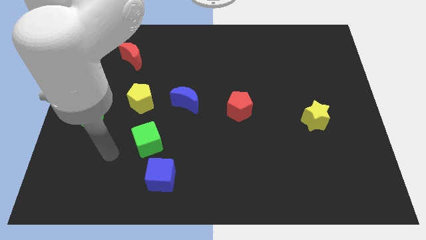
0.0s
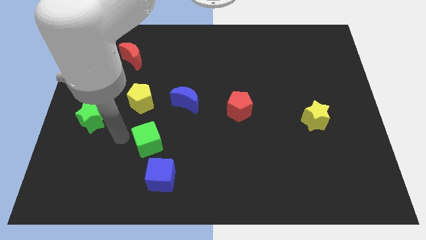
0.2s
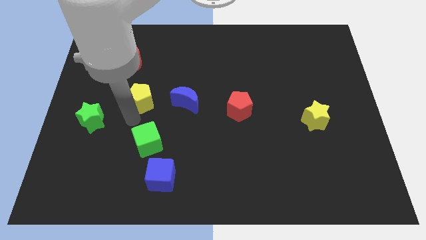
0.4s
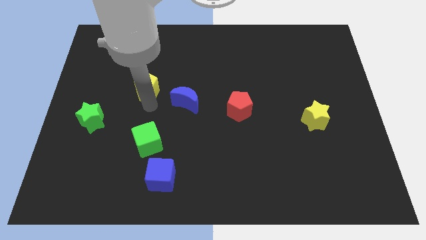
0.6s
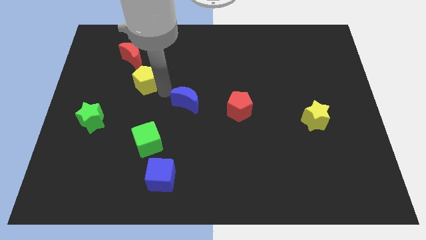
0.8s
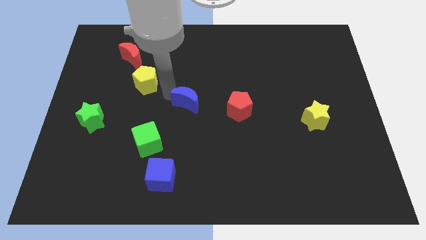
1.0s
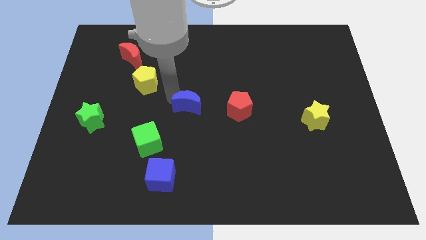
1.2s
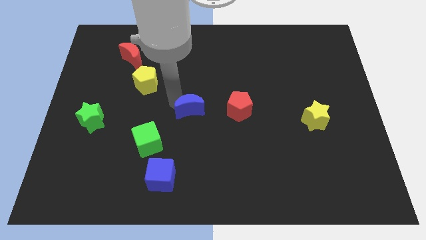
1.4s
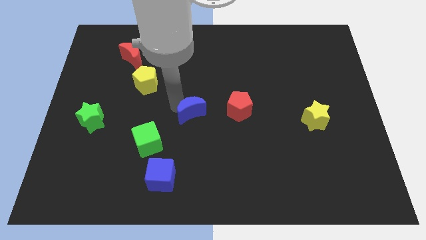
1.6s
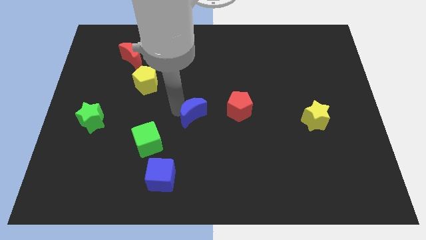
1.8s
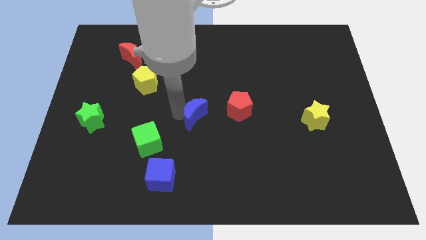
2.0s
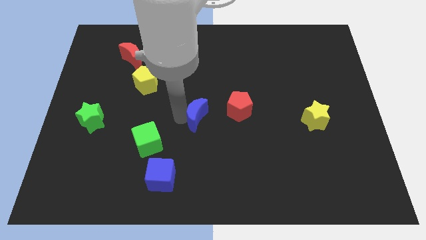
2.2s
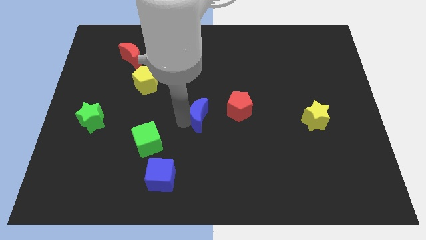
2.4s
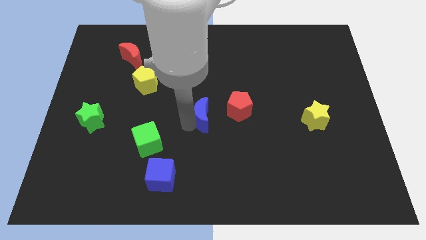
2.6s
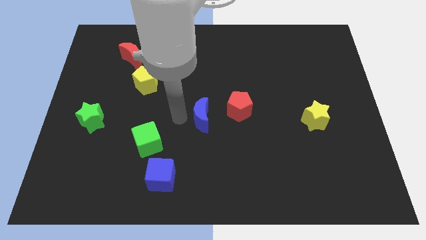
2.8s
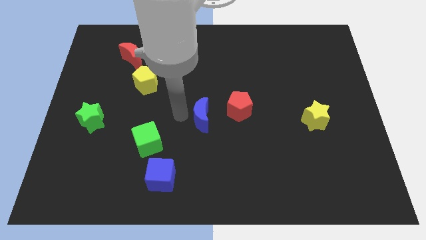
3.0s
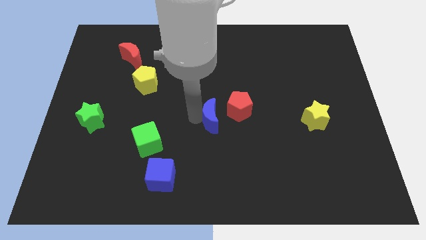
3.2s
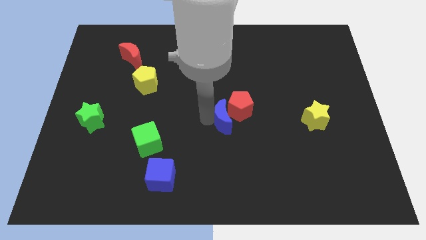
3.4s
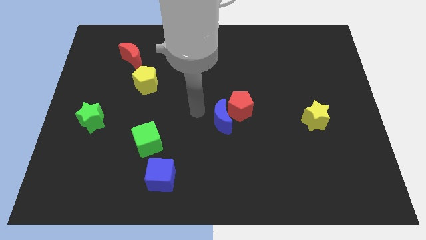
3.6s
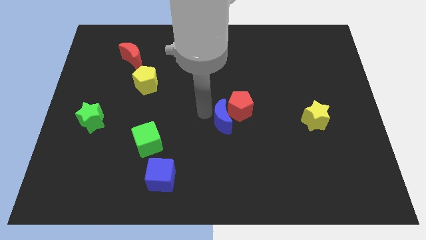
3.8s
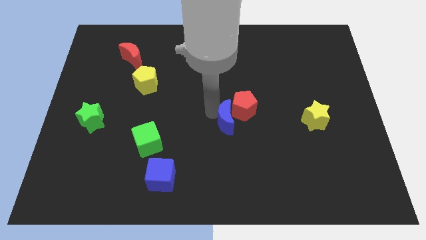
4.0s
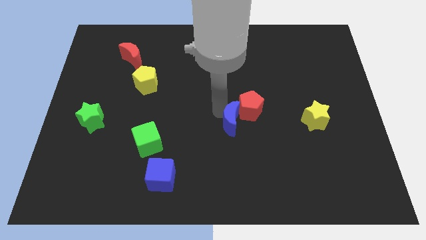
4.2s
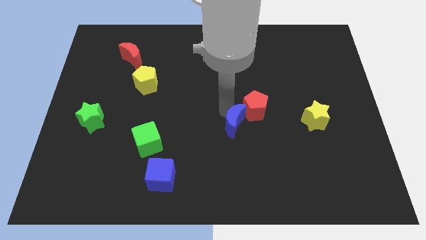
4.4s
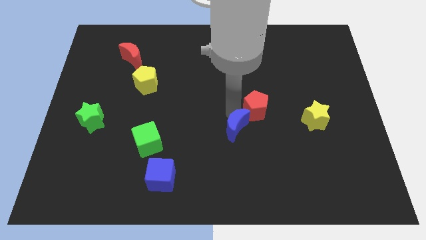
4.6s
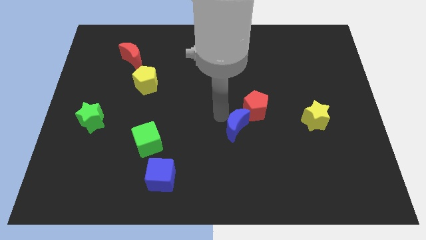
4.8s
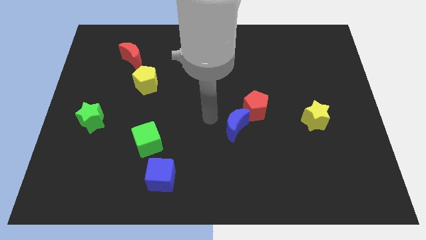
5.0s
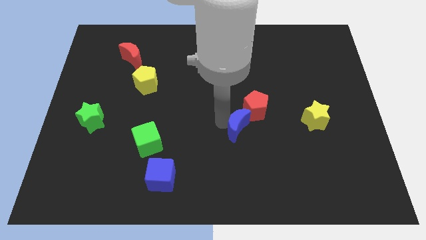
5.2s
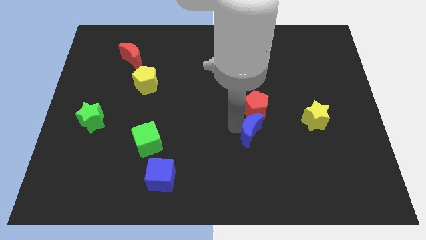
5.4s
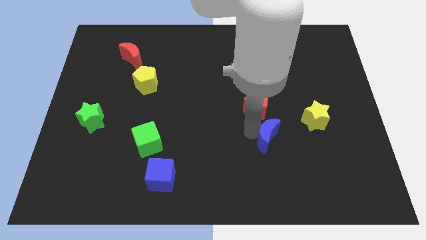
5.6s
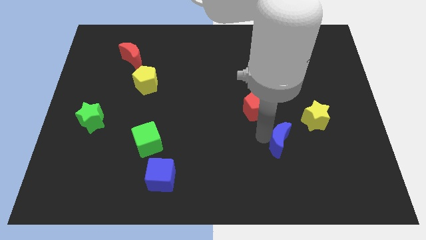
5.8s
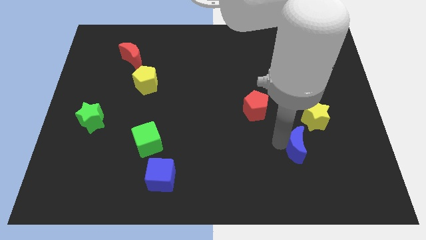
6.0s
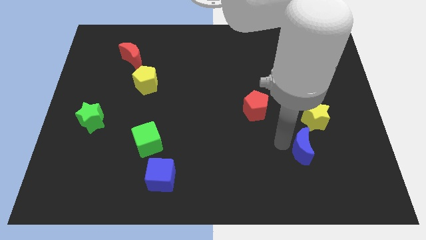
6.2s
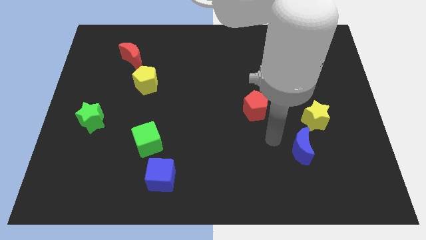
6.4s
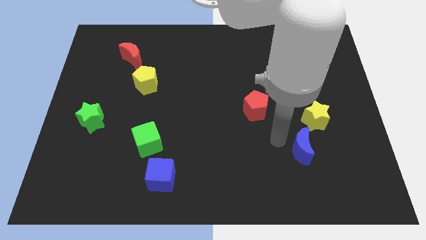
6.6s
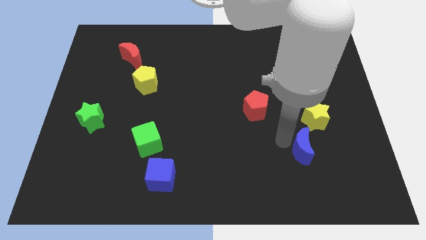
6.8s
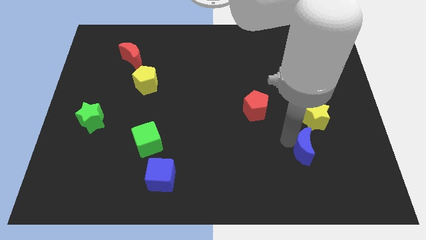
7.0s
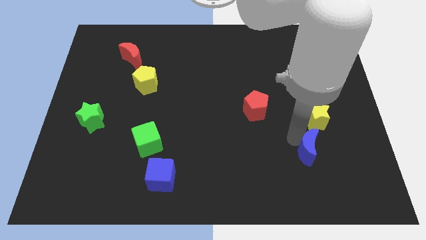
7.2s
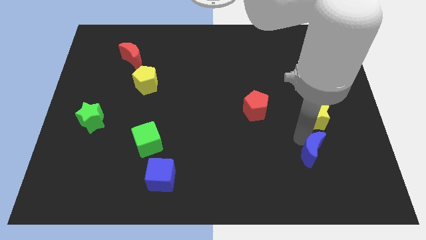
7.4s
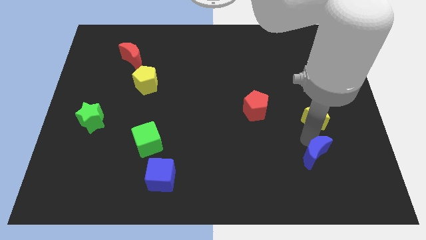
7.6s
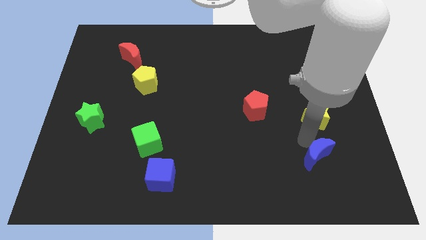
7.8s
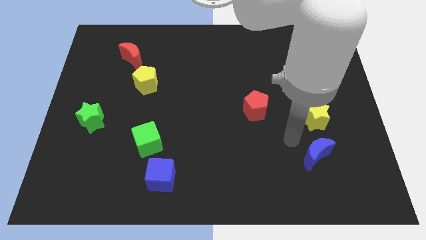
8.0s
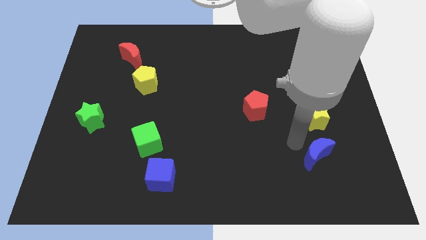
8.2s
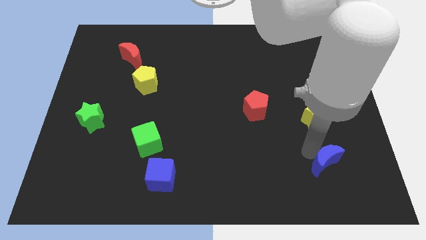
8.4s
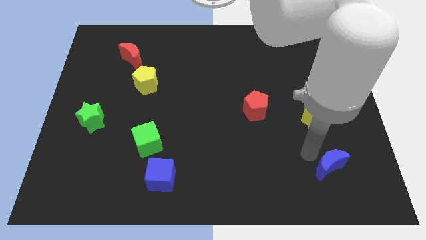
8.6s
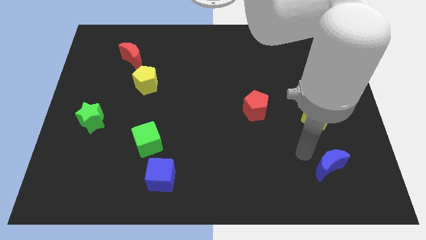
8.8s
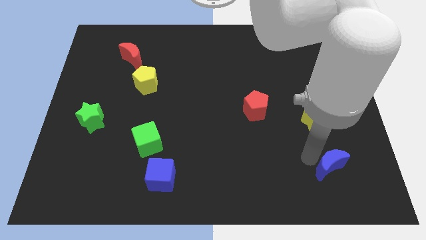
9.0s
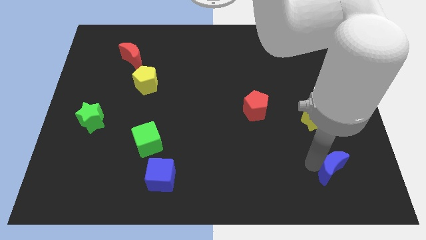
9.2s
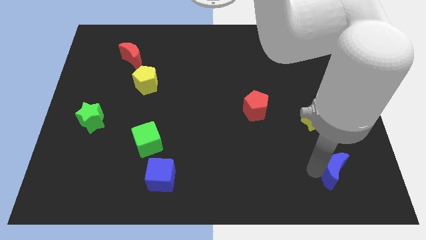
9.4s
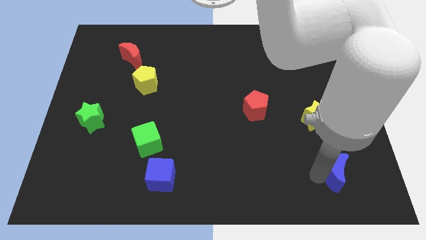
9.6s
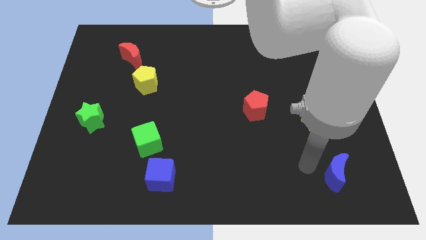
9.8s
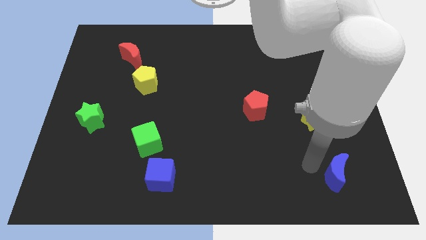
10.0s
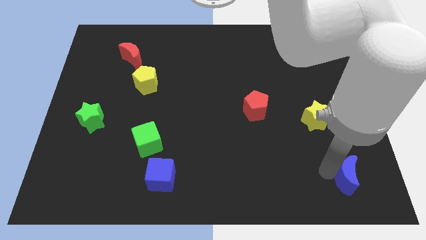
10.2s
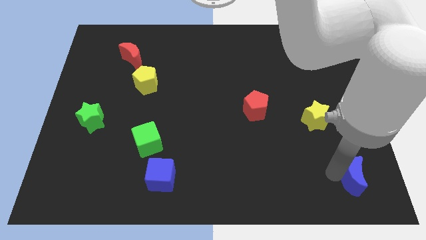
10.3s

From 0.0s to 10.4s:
slide the blue moon to the bottom right

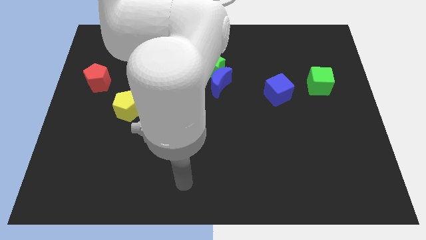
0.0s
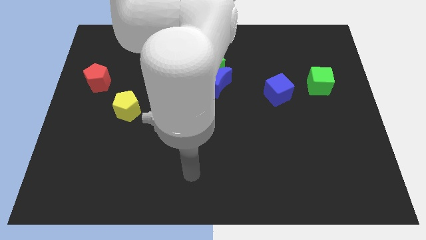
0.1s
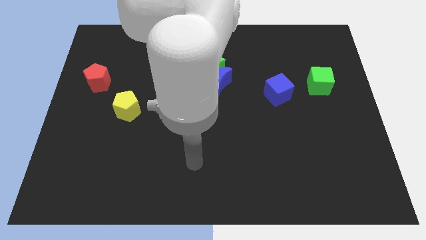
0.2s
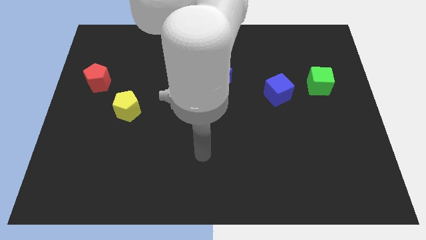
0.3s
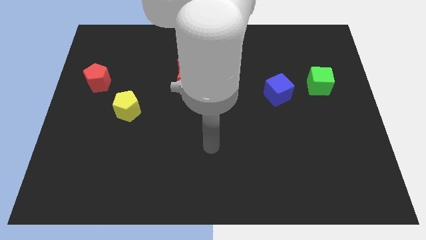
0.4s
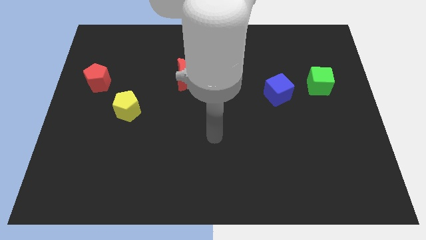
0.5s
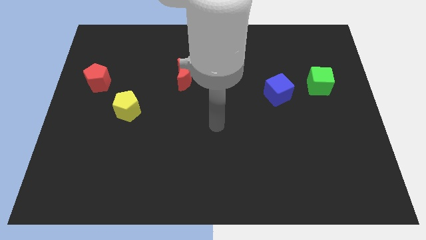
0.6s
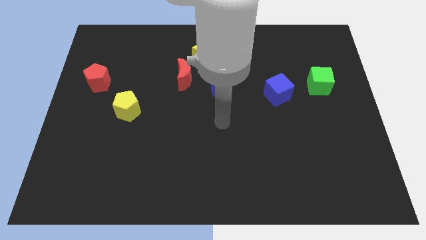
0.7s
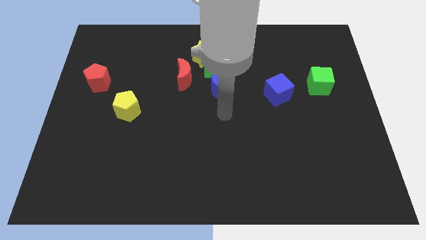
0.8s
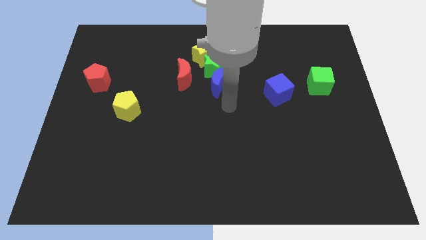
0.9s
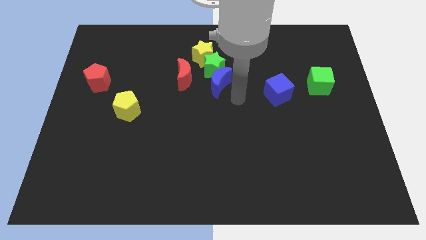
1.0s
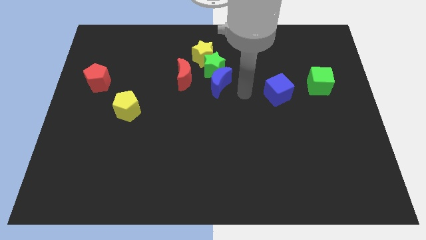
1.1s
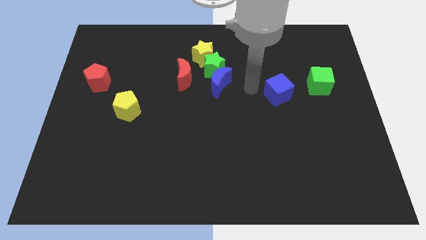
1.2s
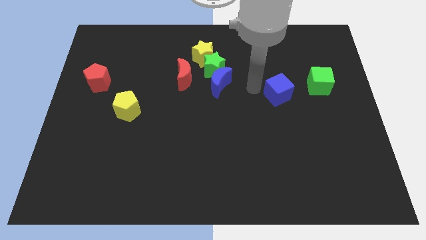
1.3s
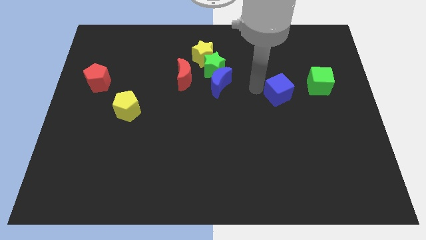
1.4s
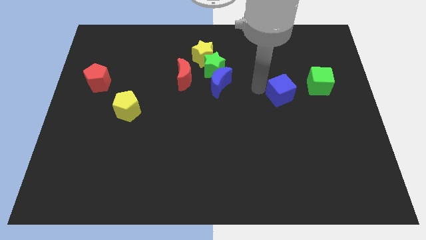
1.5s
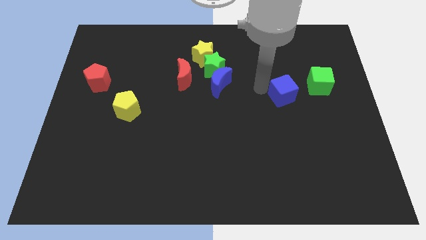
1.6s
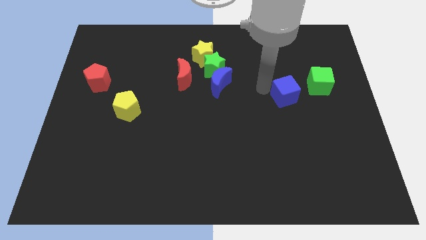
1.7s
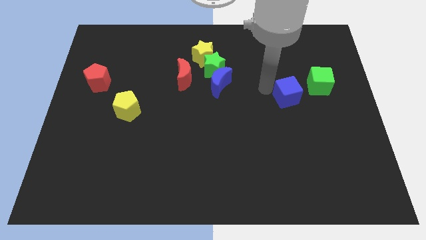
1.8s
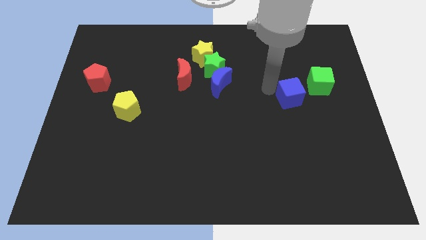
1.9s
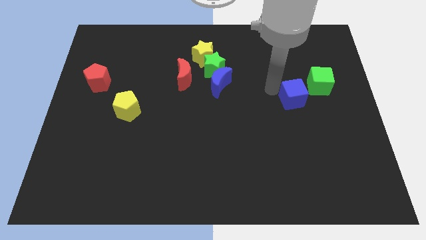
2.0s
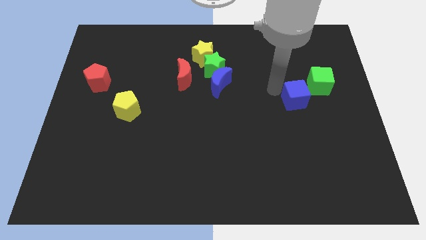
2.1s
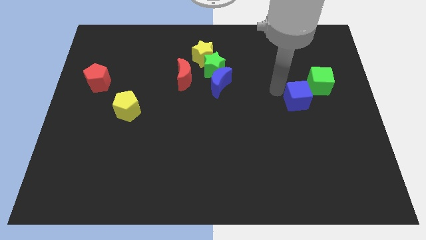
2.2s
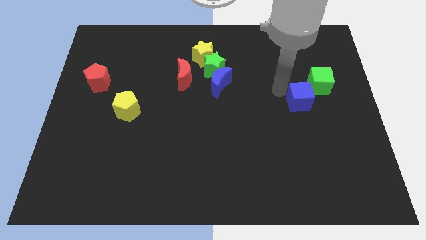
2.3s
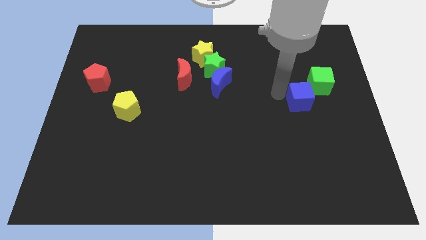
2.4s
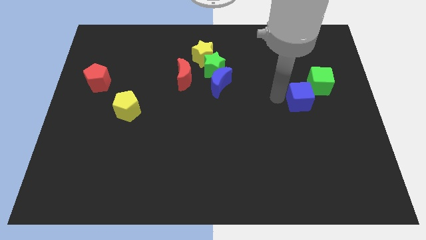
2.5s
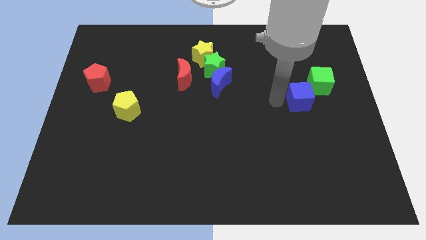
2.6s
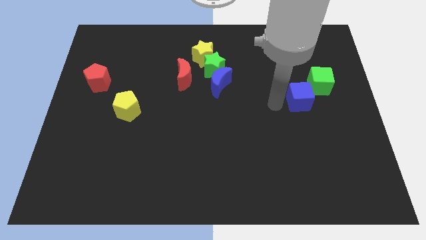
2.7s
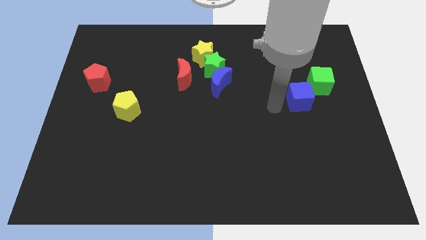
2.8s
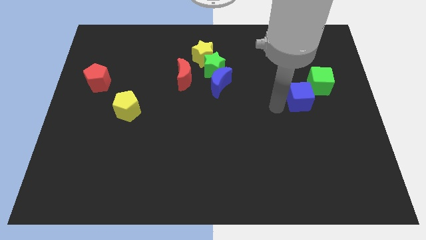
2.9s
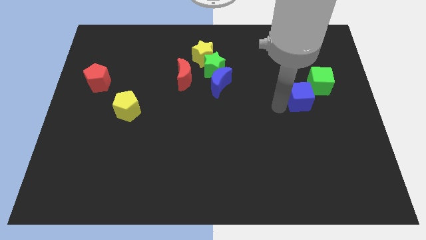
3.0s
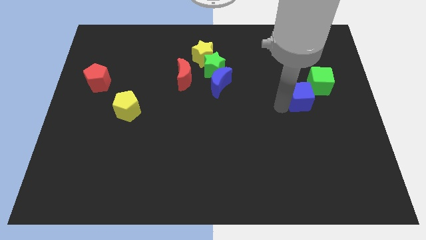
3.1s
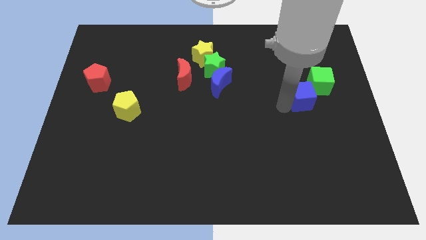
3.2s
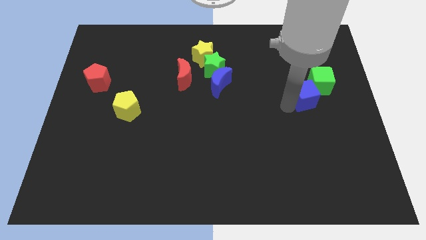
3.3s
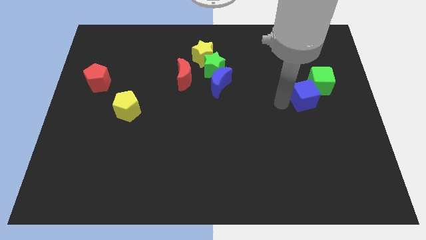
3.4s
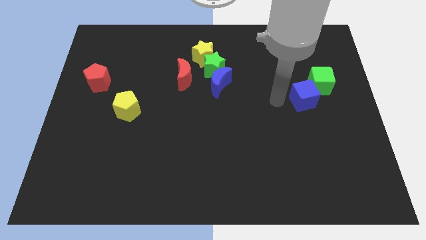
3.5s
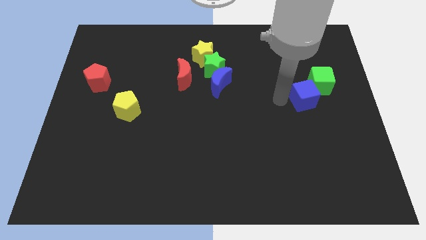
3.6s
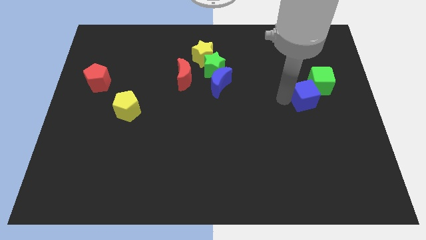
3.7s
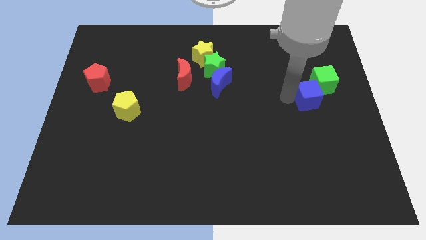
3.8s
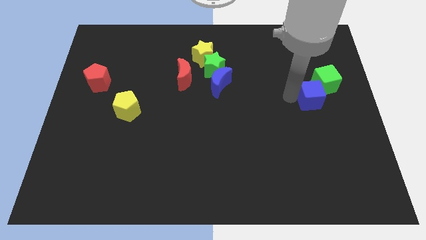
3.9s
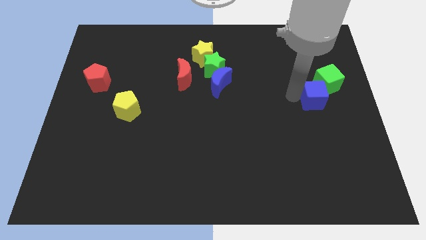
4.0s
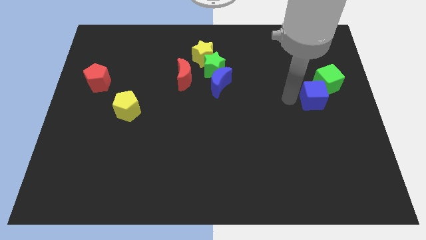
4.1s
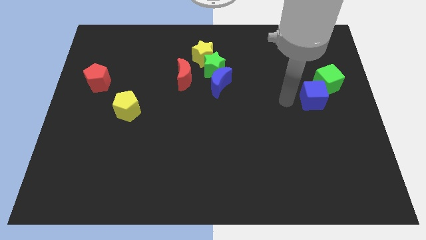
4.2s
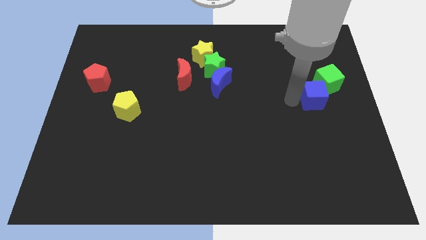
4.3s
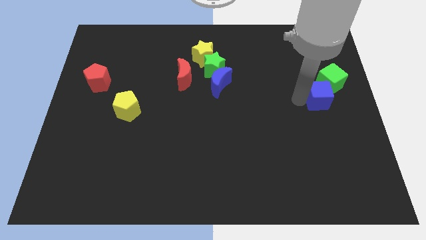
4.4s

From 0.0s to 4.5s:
push the blue cube to the right side of the board
